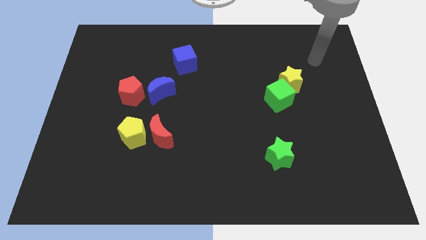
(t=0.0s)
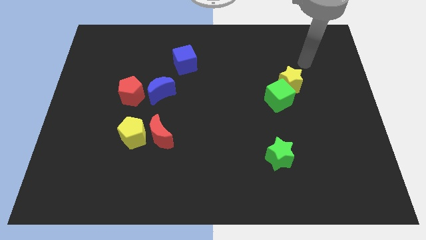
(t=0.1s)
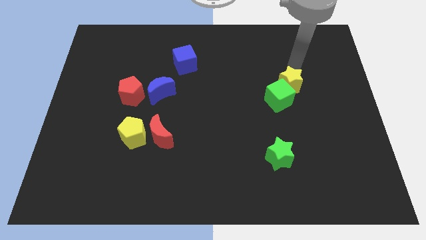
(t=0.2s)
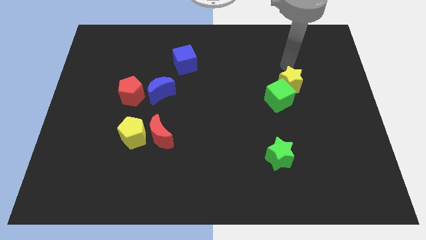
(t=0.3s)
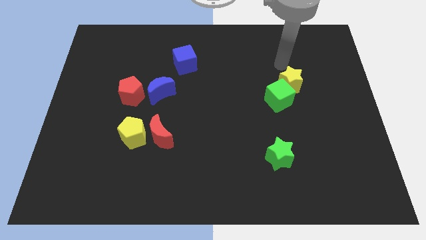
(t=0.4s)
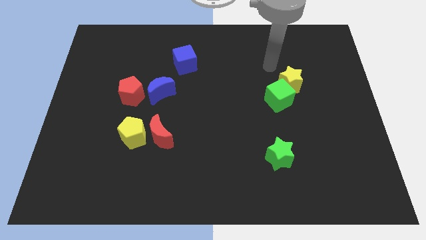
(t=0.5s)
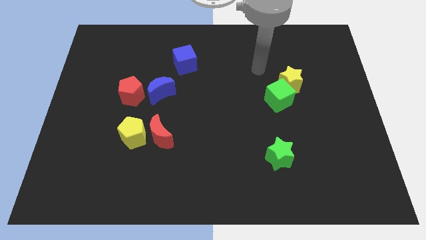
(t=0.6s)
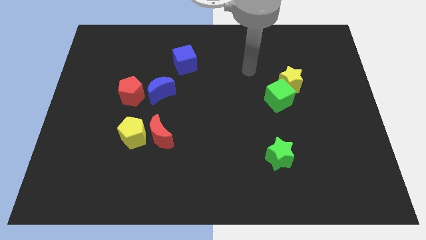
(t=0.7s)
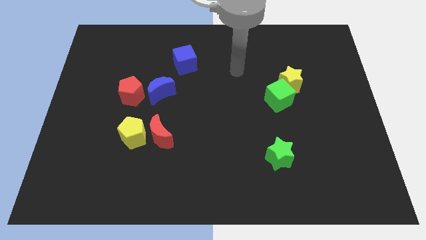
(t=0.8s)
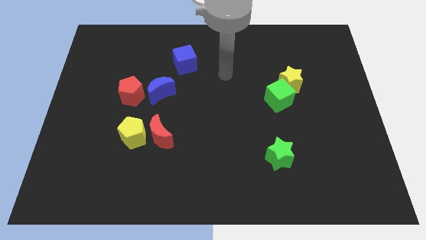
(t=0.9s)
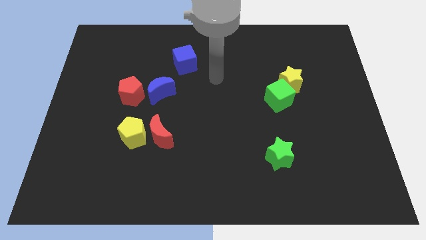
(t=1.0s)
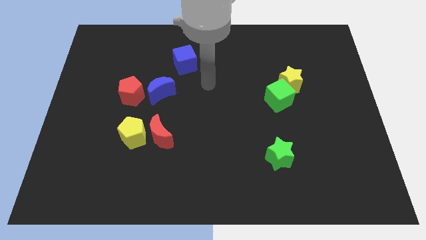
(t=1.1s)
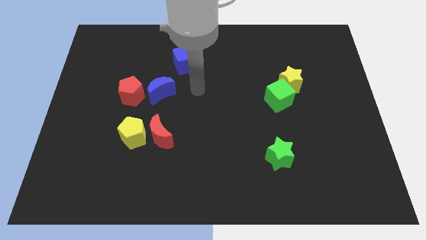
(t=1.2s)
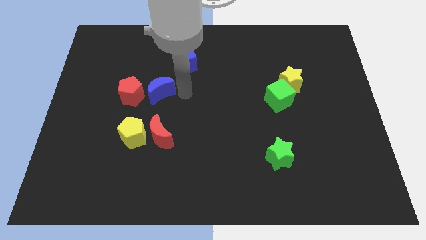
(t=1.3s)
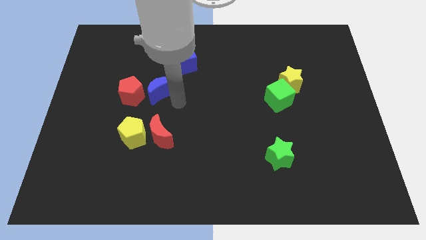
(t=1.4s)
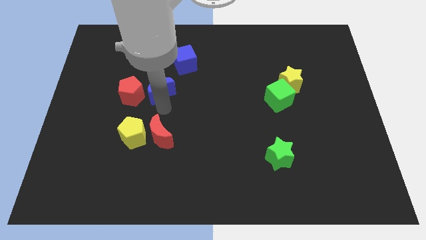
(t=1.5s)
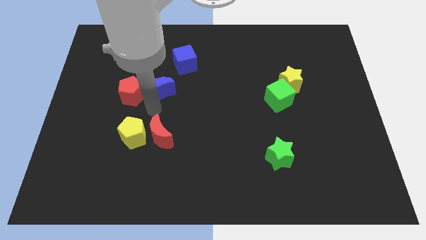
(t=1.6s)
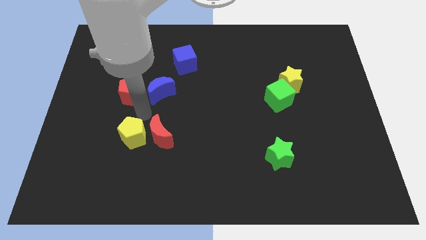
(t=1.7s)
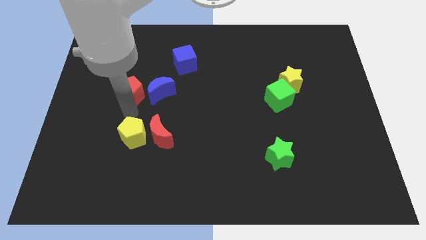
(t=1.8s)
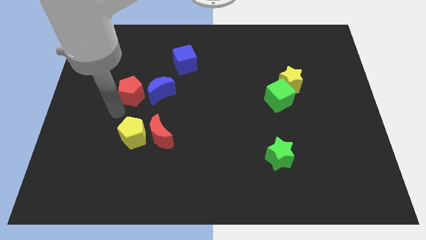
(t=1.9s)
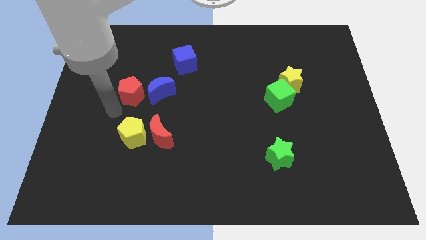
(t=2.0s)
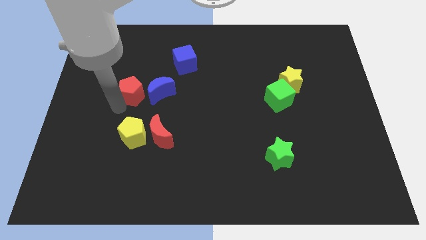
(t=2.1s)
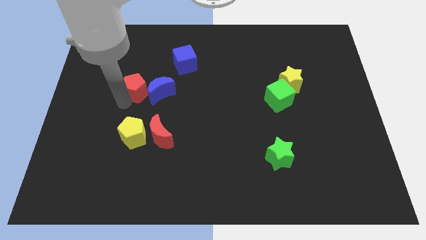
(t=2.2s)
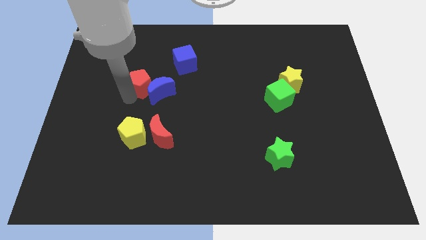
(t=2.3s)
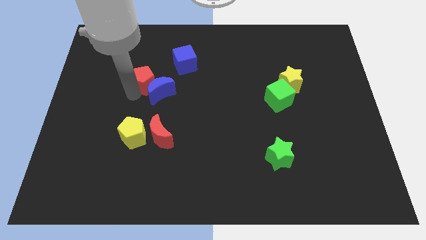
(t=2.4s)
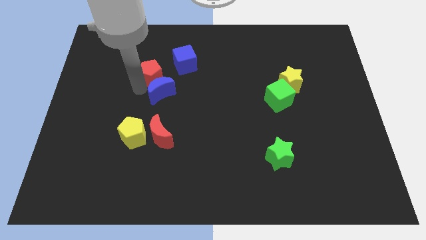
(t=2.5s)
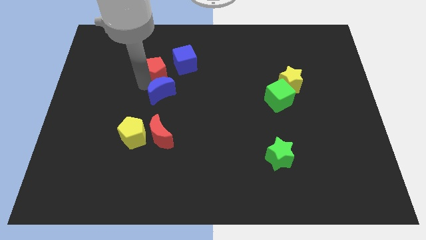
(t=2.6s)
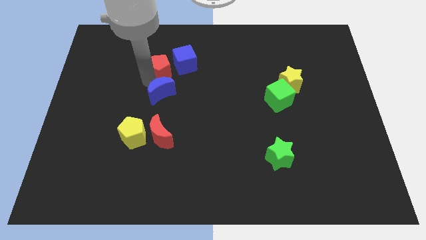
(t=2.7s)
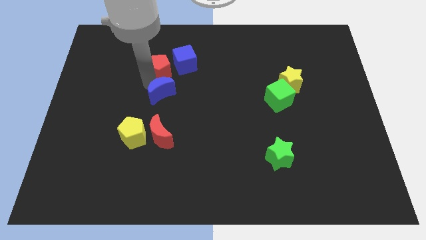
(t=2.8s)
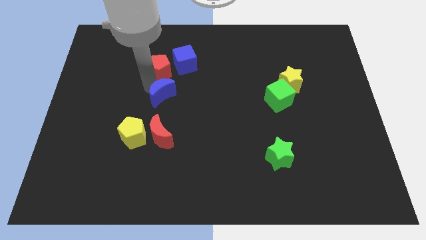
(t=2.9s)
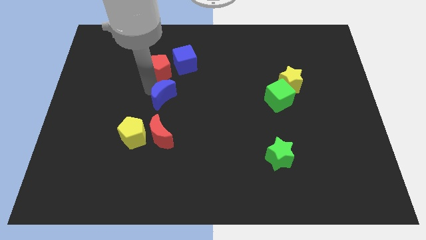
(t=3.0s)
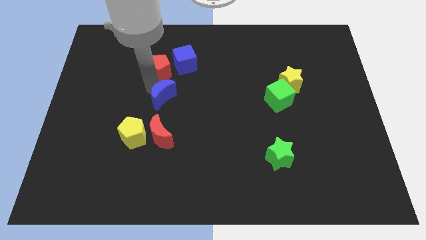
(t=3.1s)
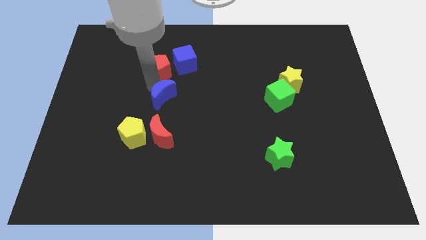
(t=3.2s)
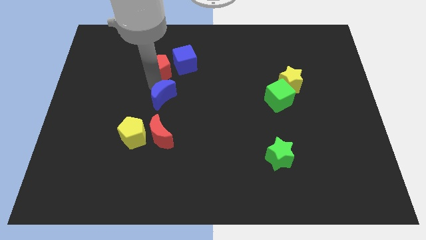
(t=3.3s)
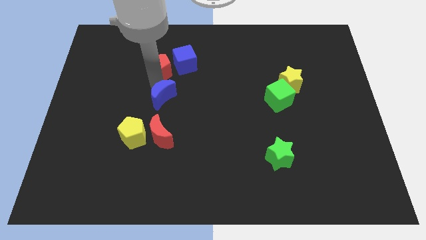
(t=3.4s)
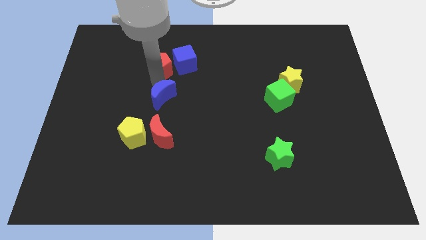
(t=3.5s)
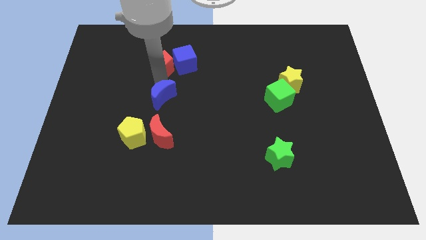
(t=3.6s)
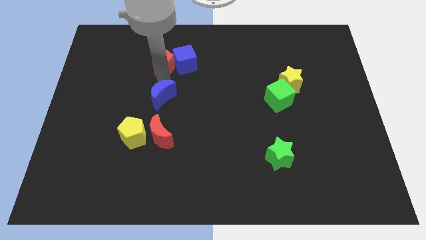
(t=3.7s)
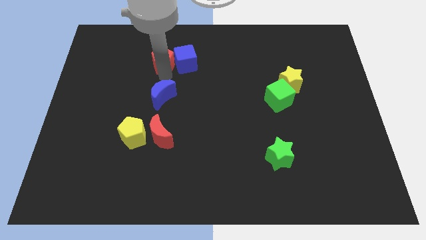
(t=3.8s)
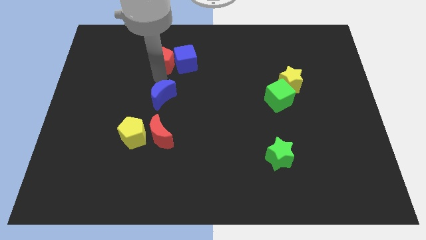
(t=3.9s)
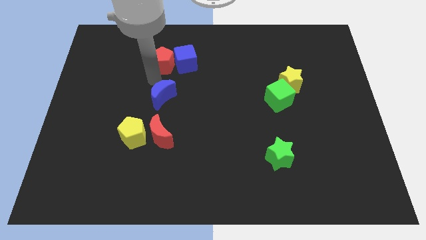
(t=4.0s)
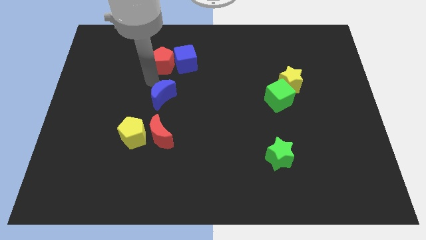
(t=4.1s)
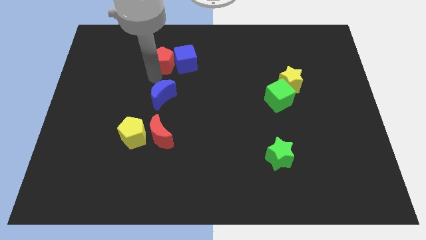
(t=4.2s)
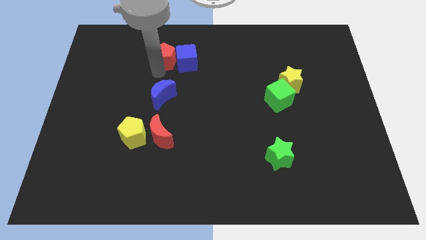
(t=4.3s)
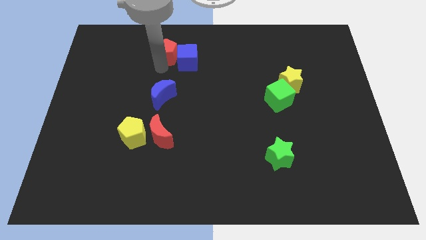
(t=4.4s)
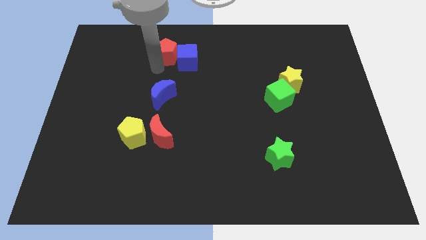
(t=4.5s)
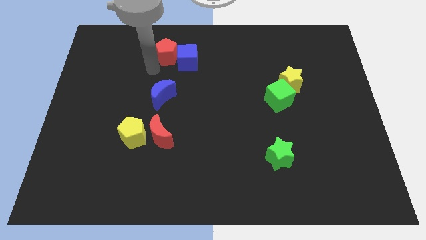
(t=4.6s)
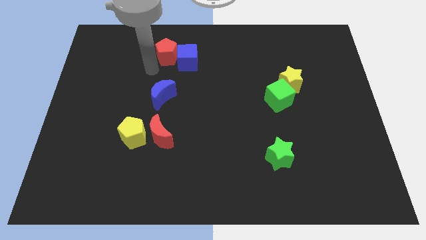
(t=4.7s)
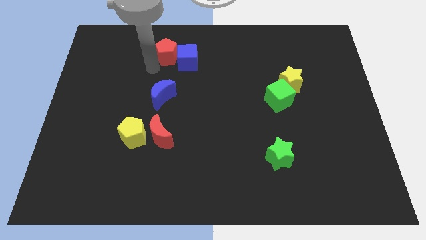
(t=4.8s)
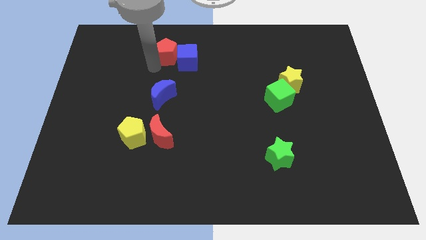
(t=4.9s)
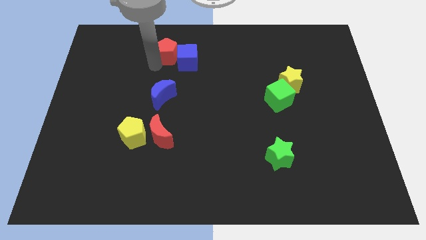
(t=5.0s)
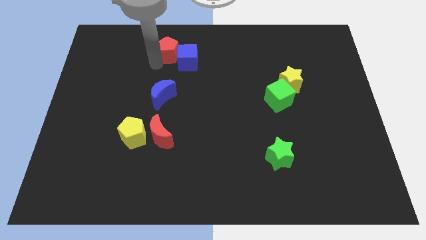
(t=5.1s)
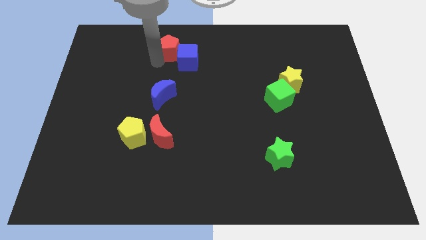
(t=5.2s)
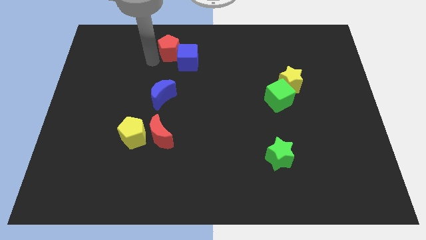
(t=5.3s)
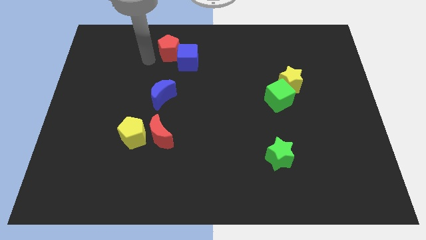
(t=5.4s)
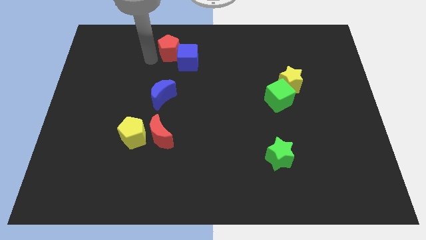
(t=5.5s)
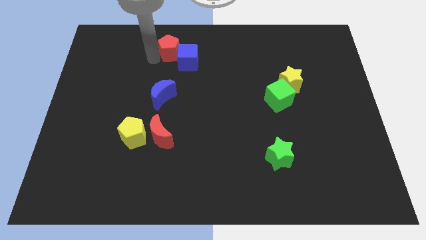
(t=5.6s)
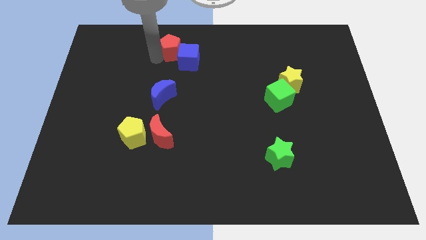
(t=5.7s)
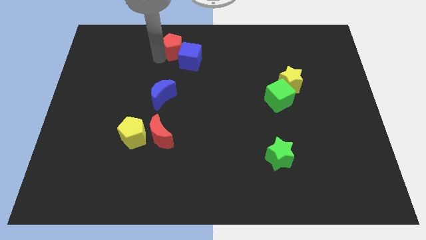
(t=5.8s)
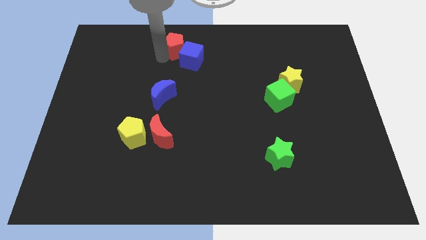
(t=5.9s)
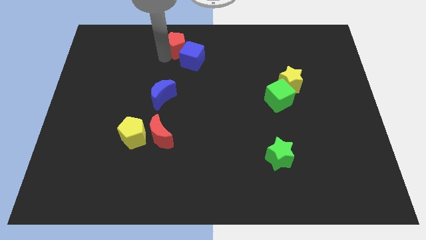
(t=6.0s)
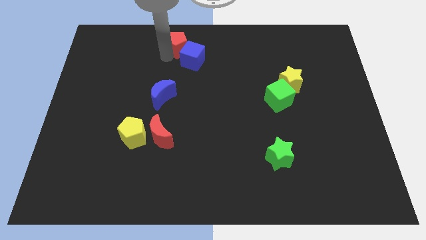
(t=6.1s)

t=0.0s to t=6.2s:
push the red pentagon to the top

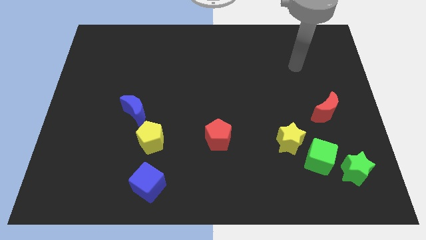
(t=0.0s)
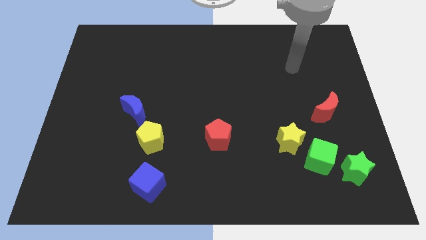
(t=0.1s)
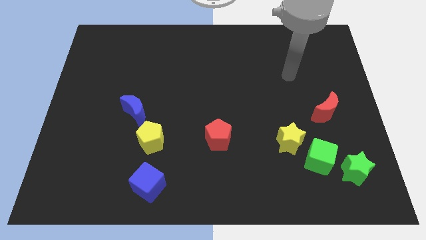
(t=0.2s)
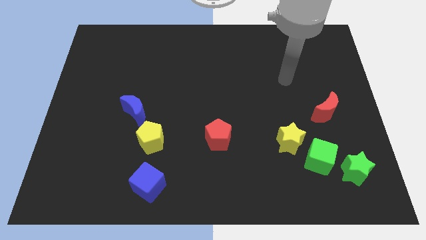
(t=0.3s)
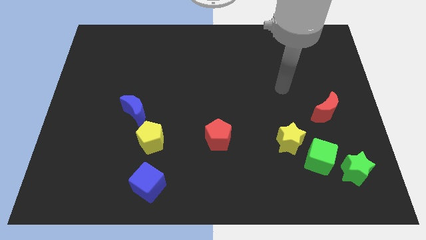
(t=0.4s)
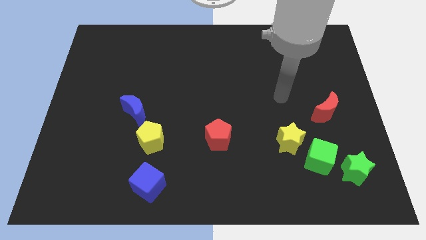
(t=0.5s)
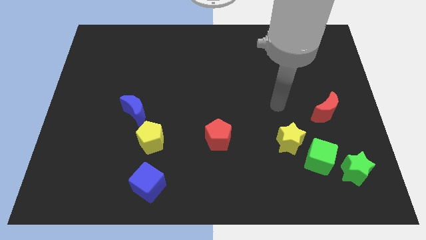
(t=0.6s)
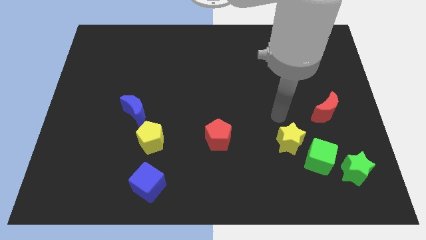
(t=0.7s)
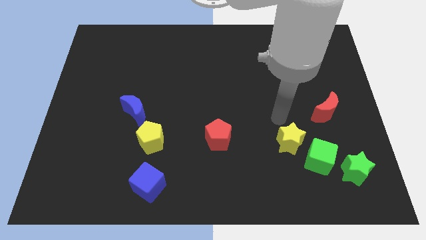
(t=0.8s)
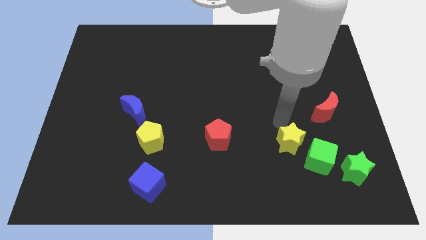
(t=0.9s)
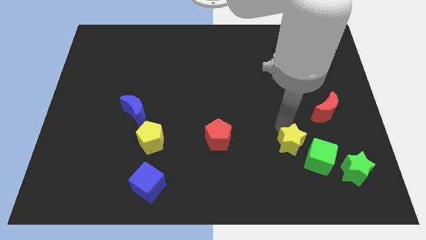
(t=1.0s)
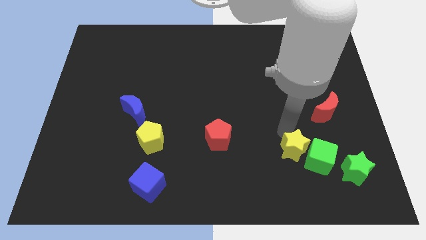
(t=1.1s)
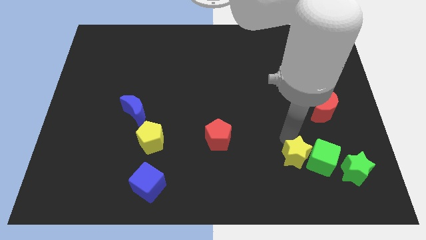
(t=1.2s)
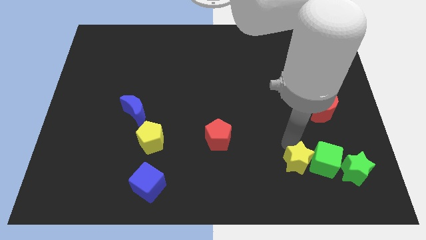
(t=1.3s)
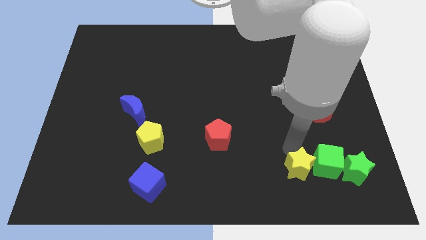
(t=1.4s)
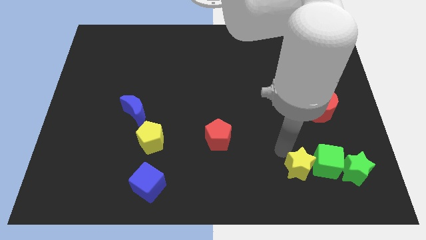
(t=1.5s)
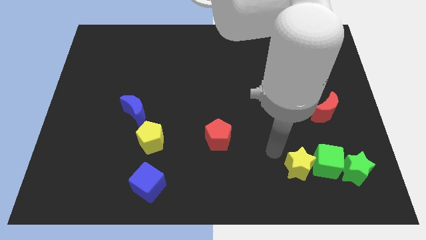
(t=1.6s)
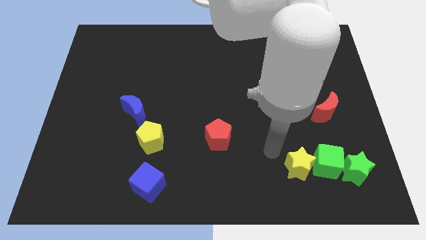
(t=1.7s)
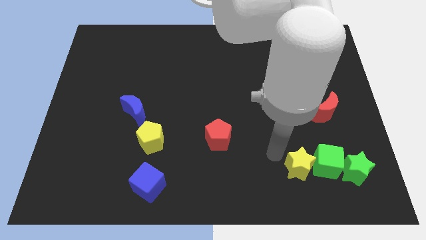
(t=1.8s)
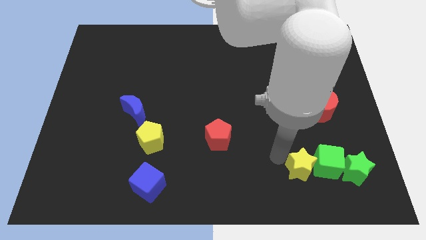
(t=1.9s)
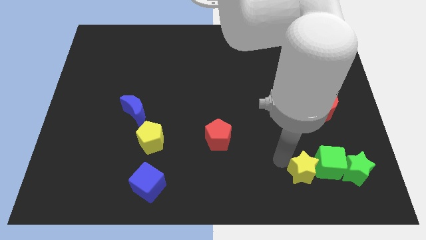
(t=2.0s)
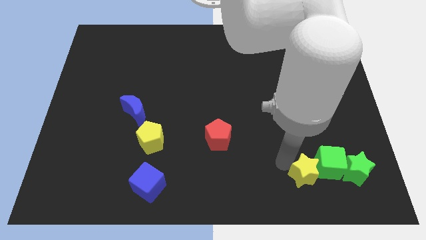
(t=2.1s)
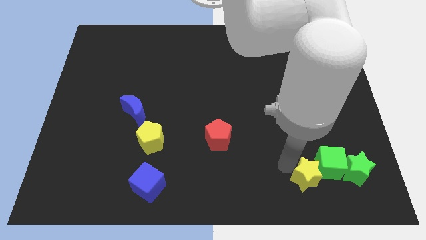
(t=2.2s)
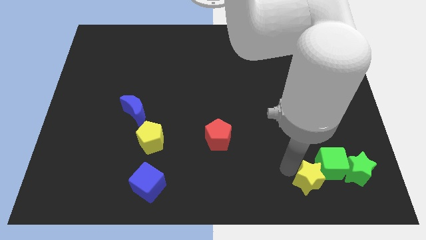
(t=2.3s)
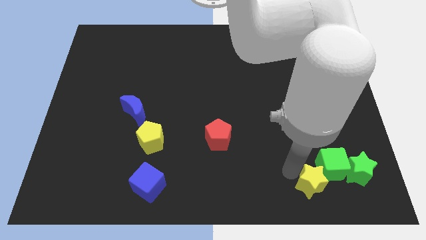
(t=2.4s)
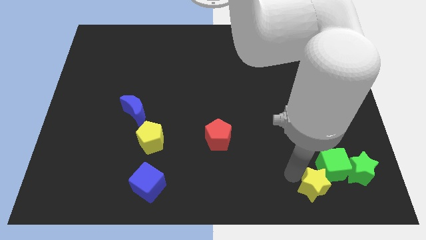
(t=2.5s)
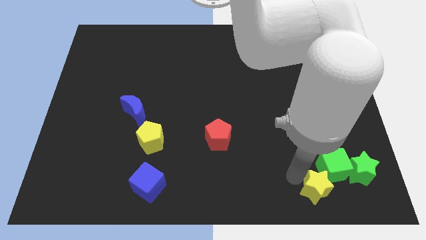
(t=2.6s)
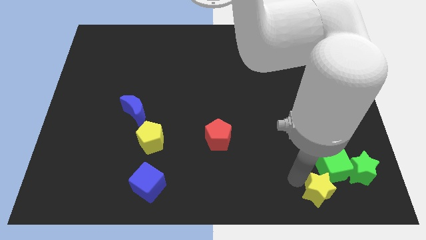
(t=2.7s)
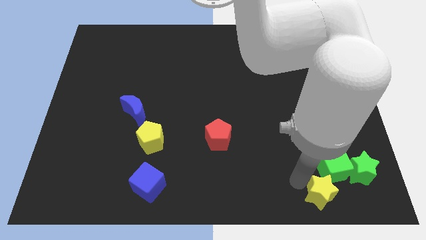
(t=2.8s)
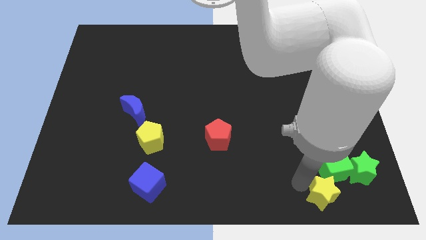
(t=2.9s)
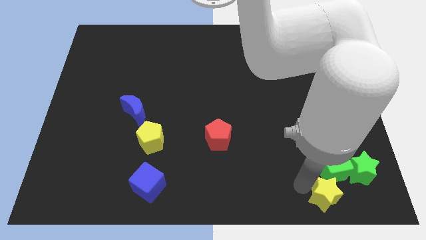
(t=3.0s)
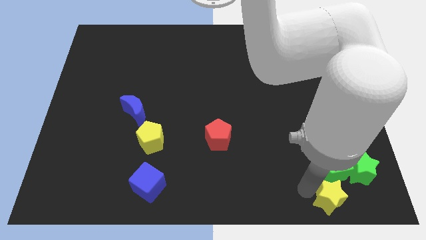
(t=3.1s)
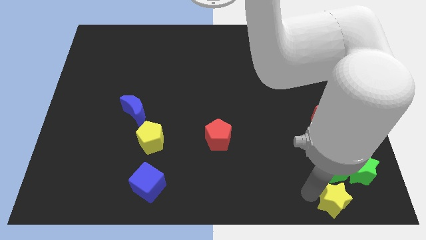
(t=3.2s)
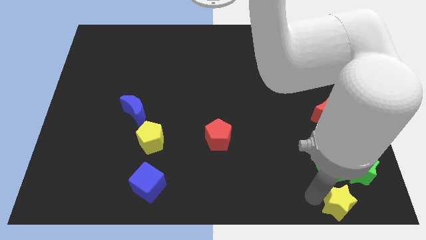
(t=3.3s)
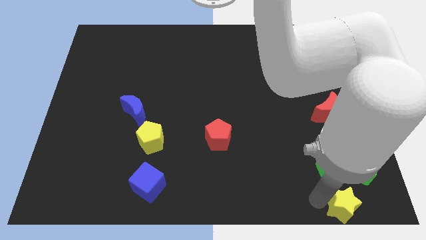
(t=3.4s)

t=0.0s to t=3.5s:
move the yellow star to the bottom right corner
